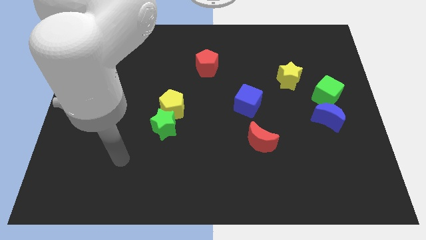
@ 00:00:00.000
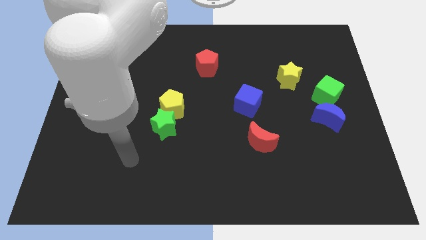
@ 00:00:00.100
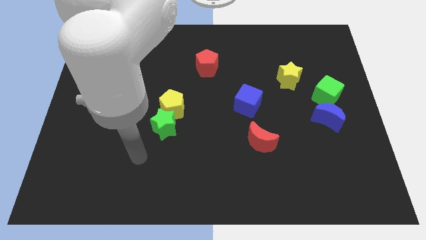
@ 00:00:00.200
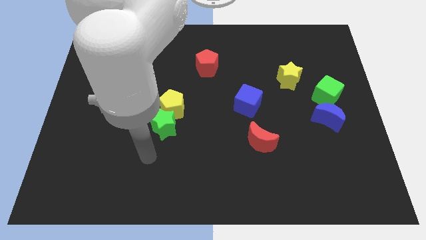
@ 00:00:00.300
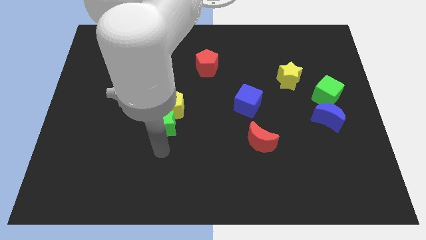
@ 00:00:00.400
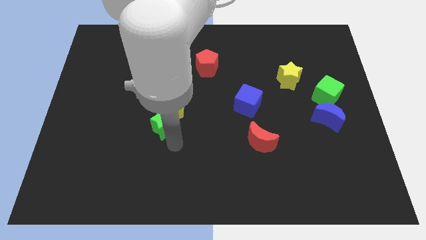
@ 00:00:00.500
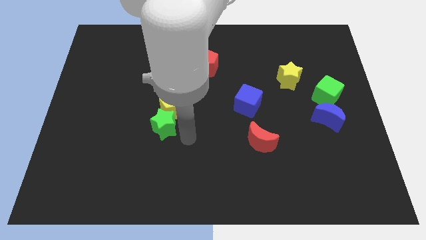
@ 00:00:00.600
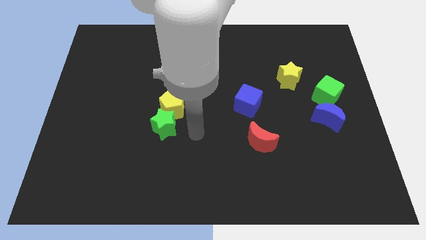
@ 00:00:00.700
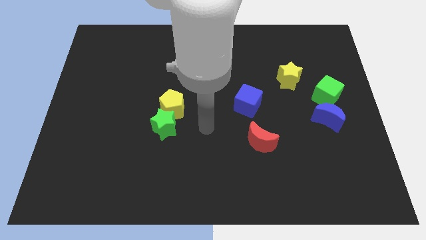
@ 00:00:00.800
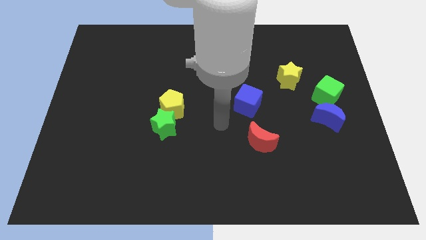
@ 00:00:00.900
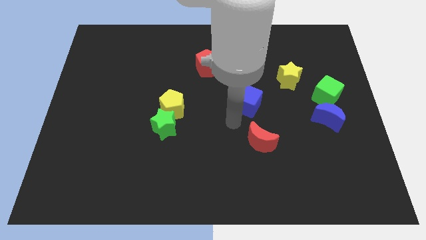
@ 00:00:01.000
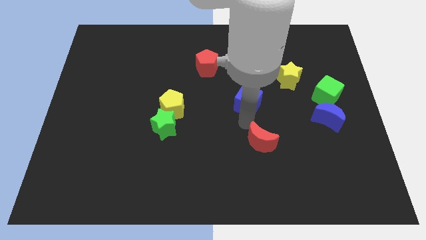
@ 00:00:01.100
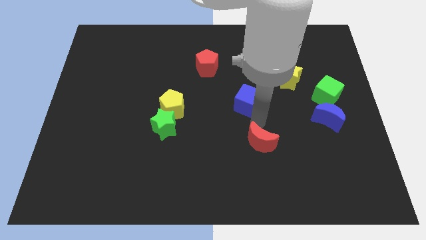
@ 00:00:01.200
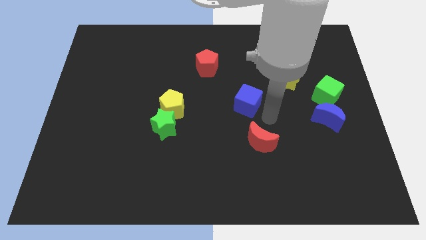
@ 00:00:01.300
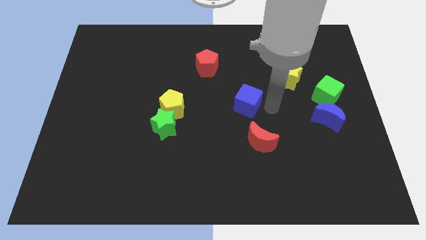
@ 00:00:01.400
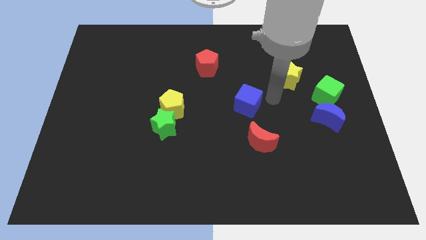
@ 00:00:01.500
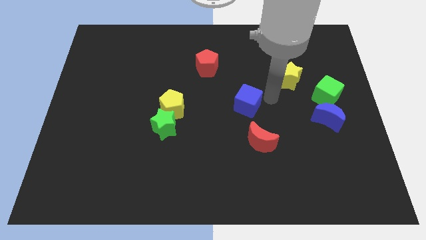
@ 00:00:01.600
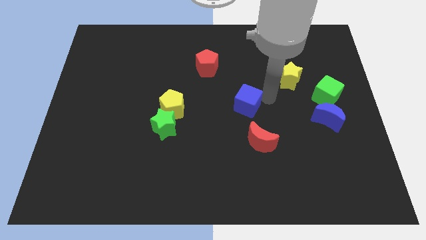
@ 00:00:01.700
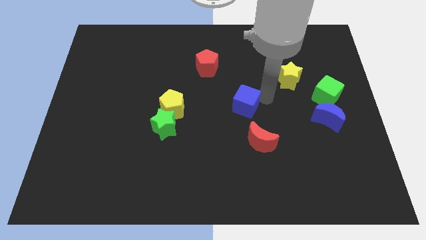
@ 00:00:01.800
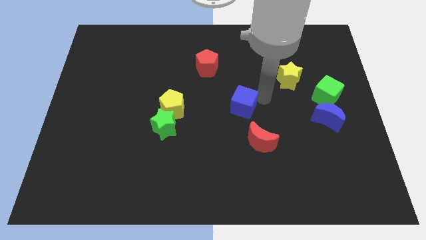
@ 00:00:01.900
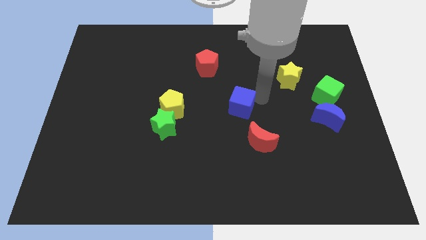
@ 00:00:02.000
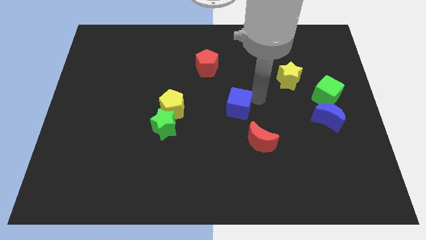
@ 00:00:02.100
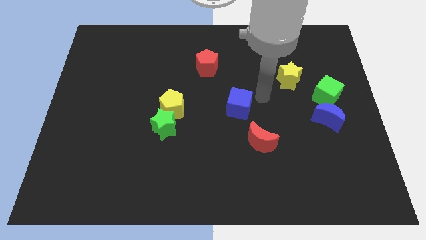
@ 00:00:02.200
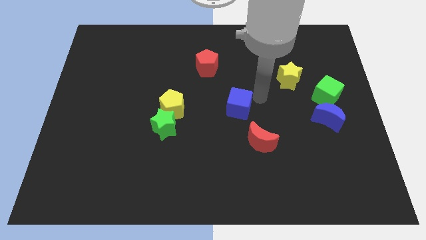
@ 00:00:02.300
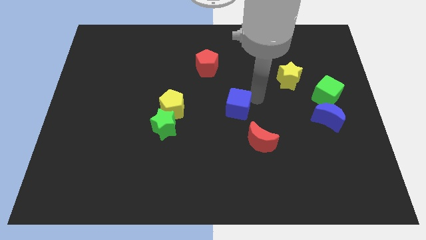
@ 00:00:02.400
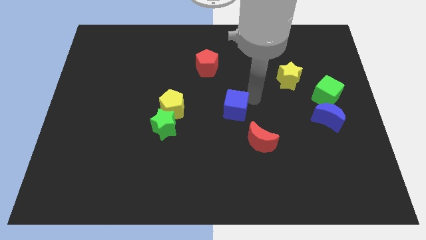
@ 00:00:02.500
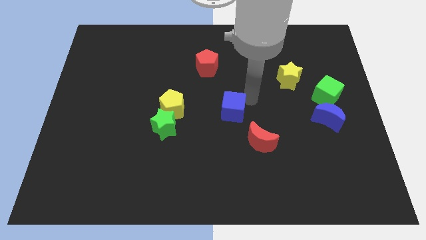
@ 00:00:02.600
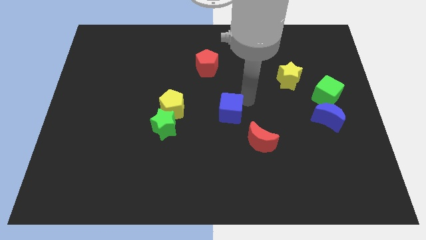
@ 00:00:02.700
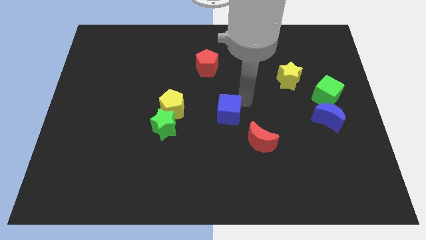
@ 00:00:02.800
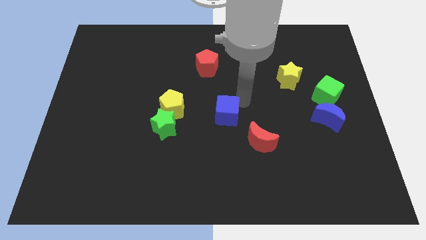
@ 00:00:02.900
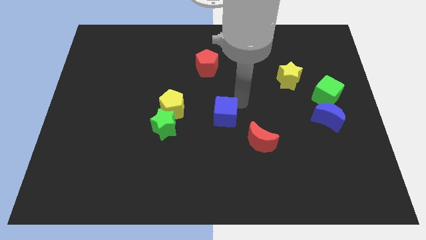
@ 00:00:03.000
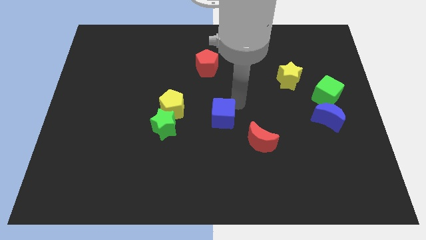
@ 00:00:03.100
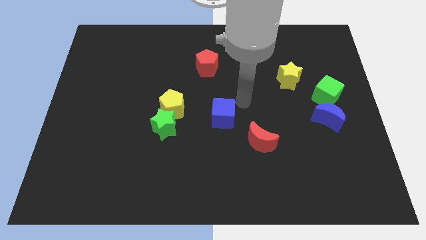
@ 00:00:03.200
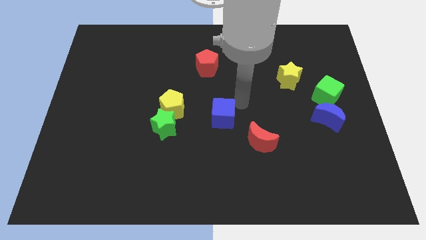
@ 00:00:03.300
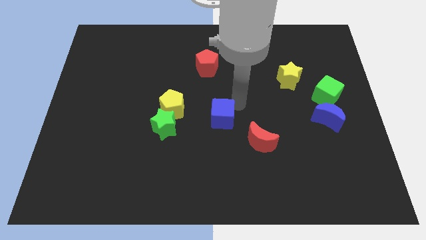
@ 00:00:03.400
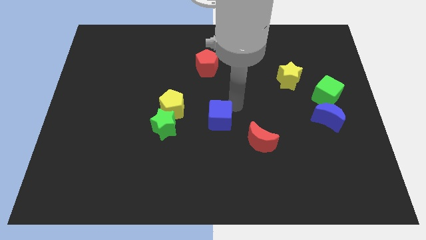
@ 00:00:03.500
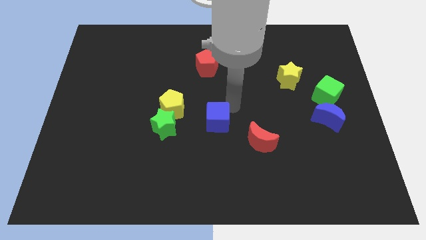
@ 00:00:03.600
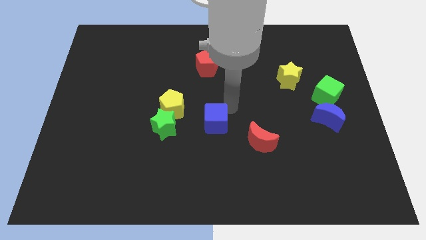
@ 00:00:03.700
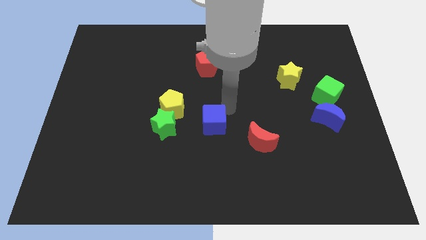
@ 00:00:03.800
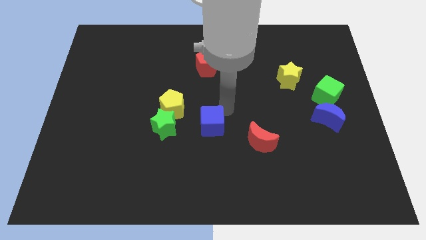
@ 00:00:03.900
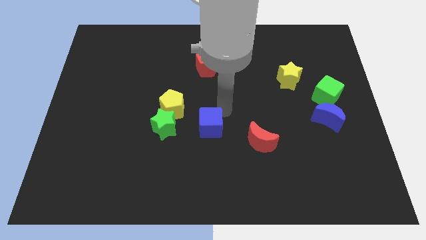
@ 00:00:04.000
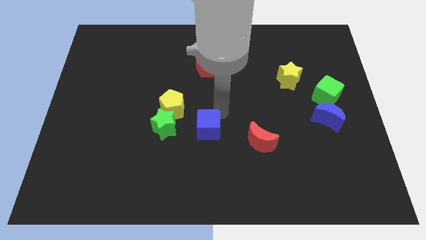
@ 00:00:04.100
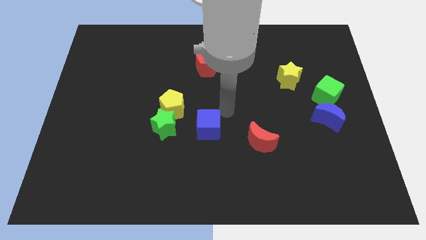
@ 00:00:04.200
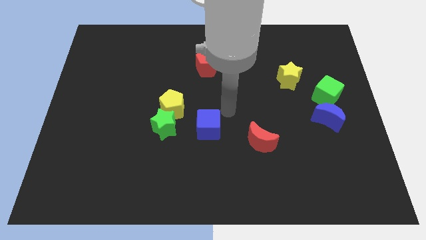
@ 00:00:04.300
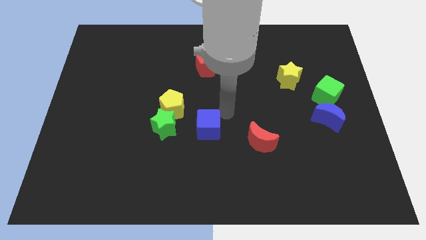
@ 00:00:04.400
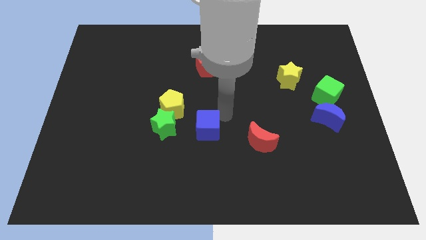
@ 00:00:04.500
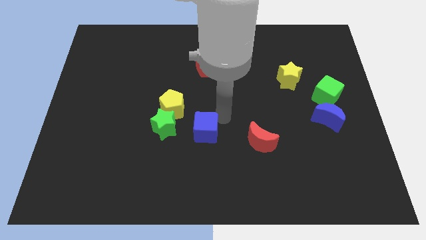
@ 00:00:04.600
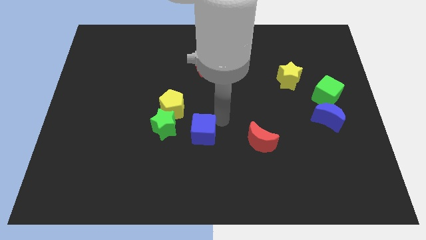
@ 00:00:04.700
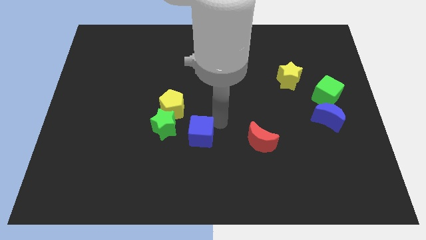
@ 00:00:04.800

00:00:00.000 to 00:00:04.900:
push the blue cube to the bottom right of the green star

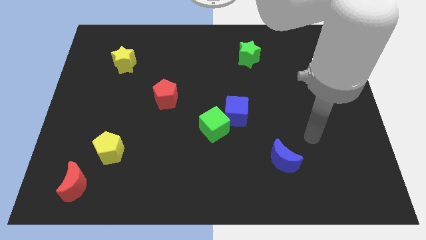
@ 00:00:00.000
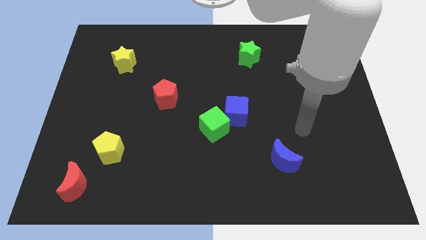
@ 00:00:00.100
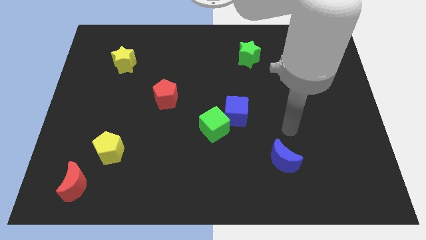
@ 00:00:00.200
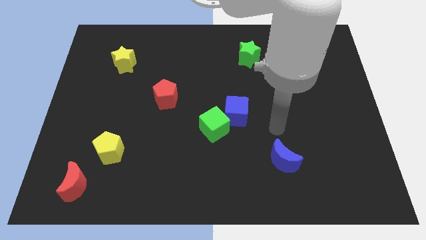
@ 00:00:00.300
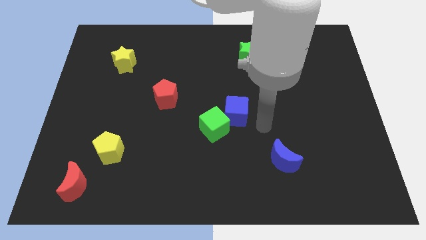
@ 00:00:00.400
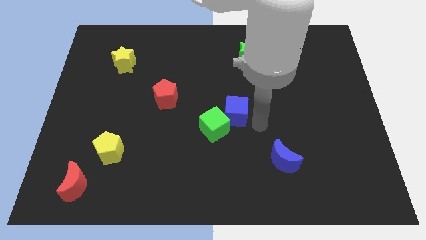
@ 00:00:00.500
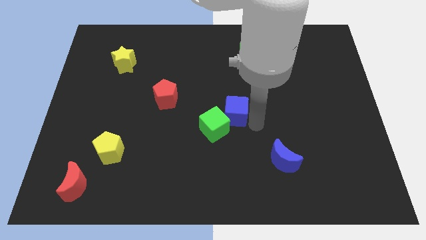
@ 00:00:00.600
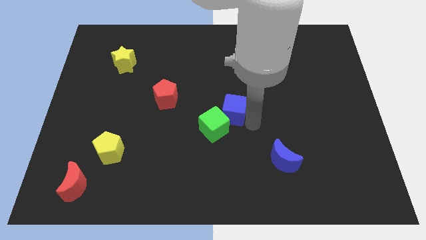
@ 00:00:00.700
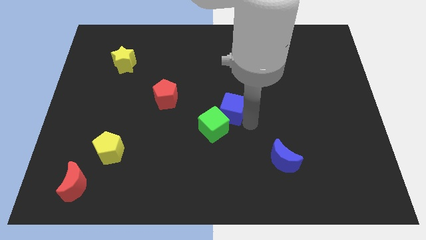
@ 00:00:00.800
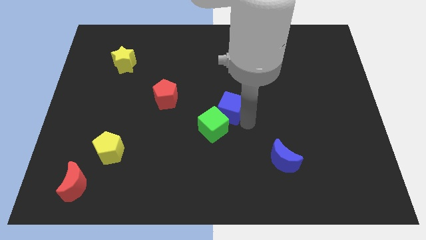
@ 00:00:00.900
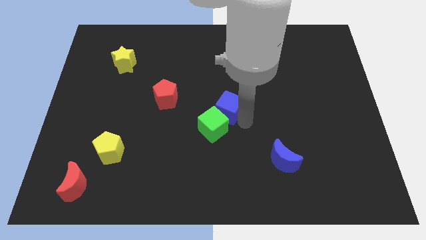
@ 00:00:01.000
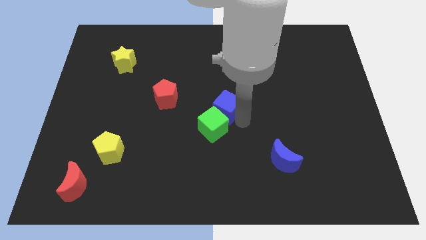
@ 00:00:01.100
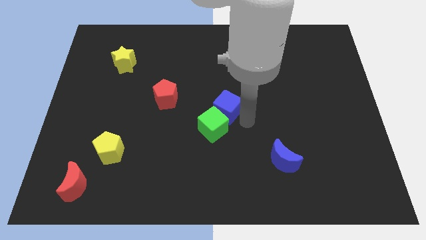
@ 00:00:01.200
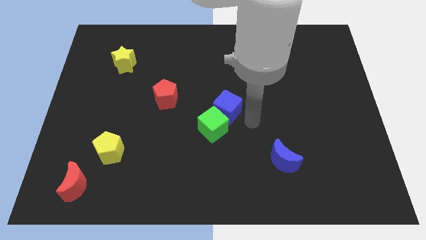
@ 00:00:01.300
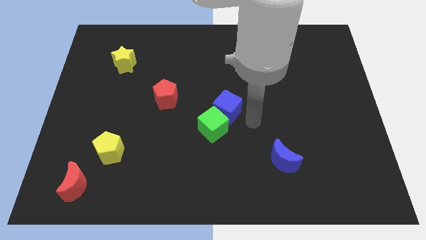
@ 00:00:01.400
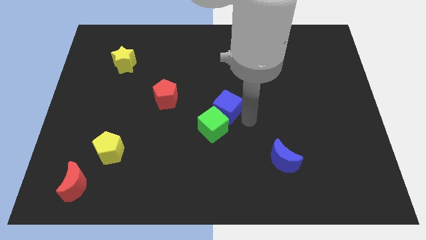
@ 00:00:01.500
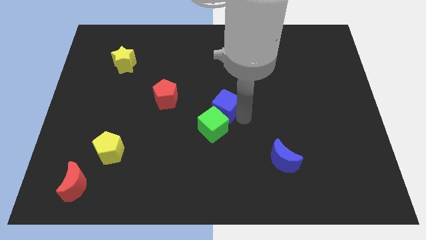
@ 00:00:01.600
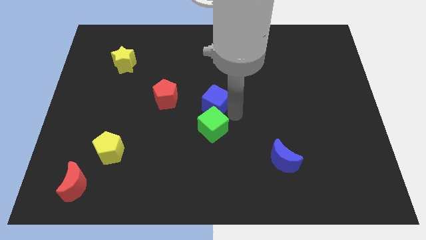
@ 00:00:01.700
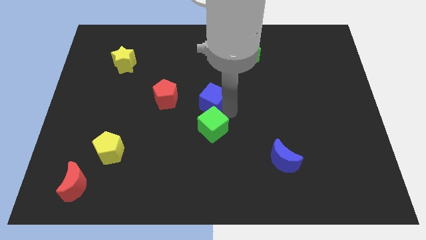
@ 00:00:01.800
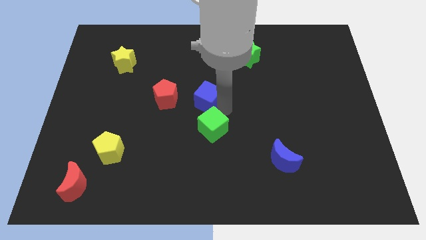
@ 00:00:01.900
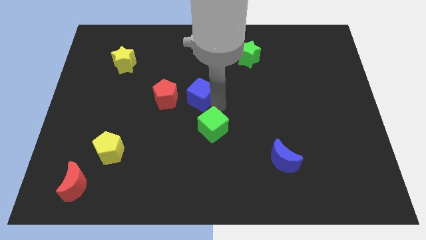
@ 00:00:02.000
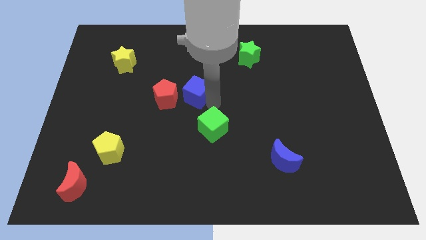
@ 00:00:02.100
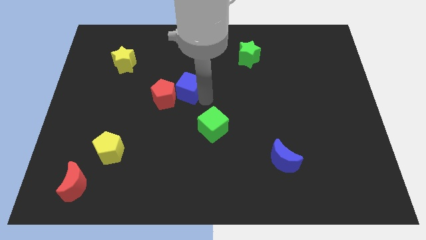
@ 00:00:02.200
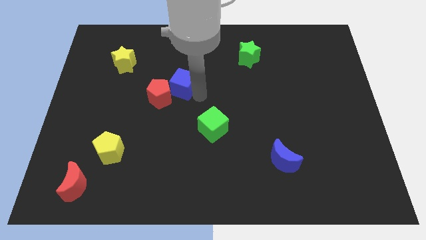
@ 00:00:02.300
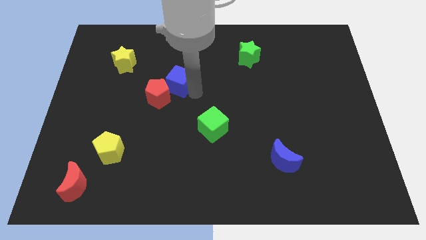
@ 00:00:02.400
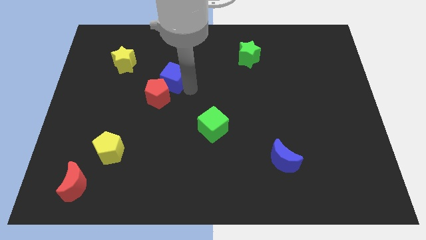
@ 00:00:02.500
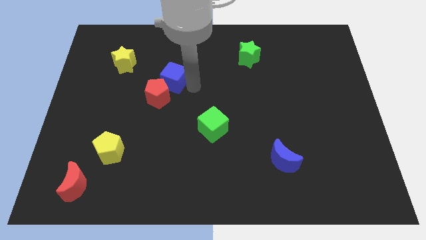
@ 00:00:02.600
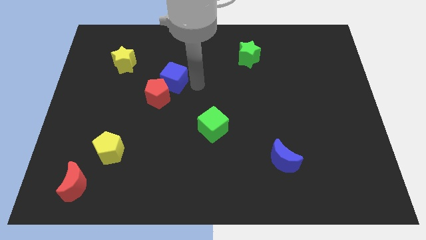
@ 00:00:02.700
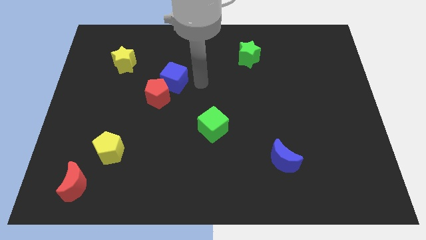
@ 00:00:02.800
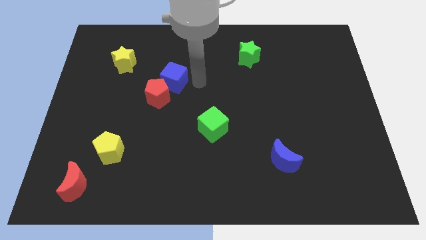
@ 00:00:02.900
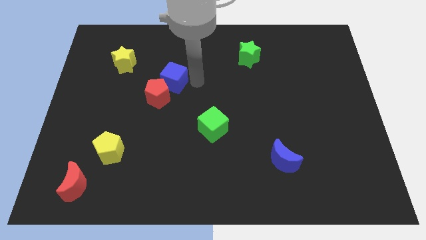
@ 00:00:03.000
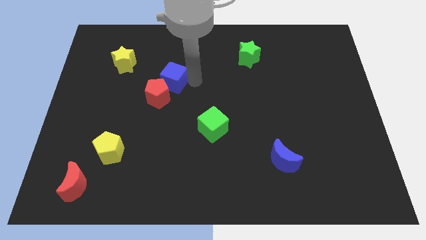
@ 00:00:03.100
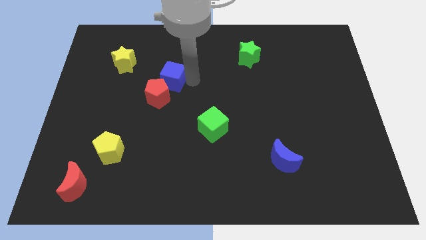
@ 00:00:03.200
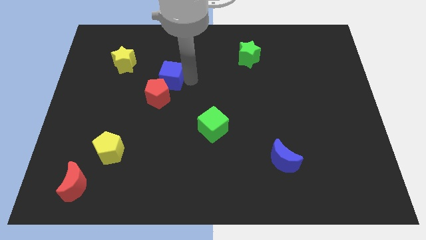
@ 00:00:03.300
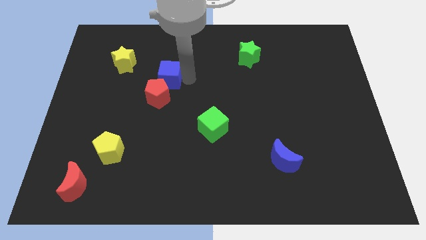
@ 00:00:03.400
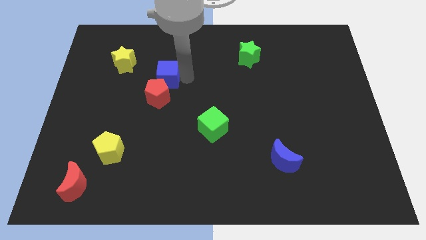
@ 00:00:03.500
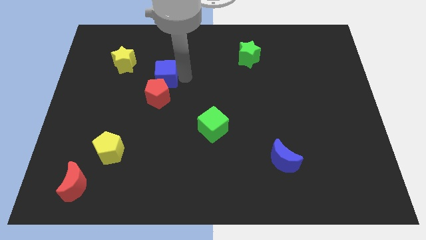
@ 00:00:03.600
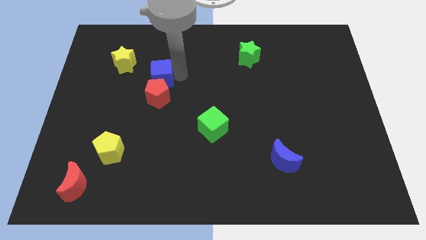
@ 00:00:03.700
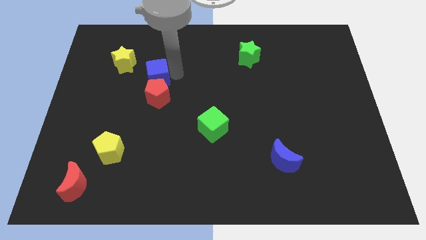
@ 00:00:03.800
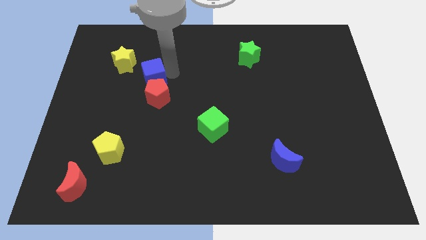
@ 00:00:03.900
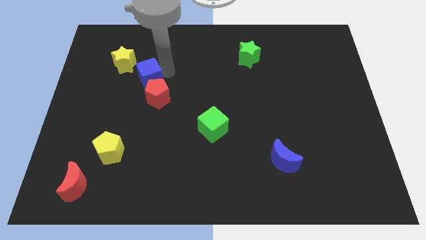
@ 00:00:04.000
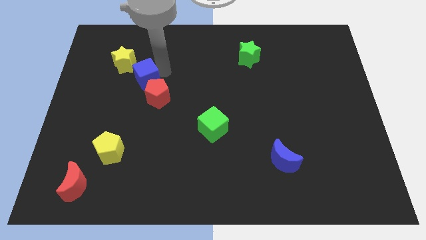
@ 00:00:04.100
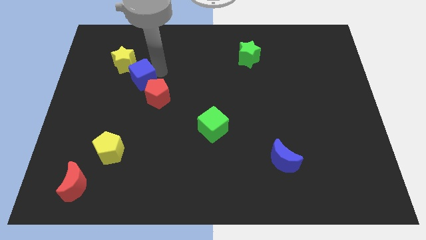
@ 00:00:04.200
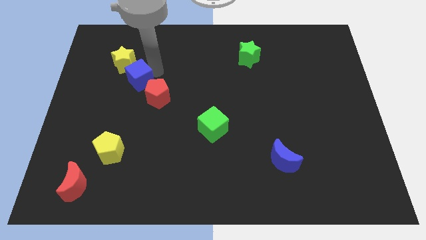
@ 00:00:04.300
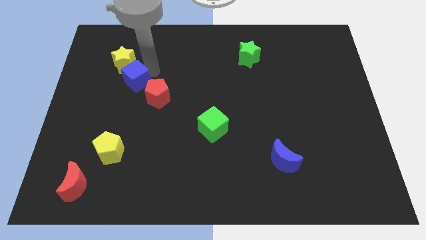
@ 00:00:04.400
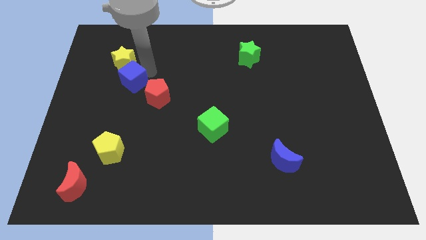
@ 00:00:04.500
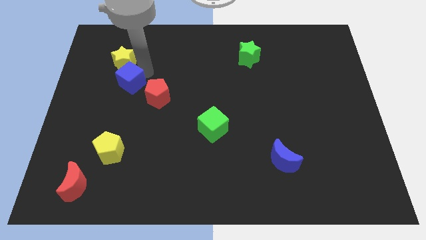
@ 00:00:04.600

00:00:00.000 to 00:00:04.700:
push the blue cube just left of the red pentagon
